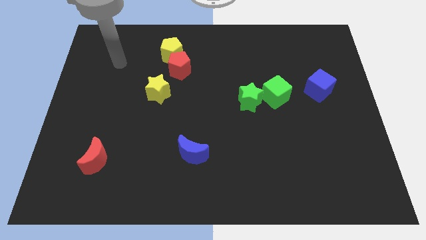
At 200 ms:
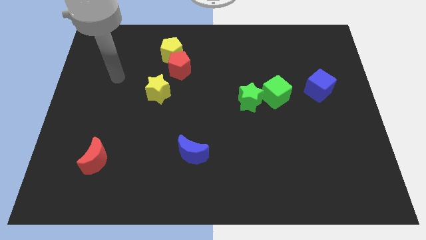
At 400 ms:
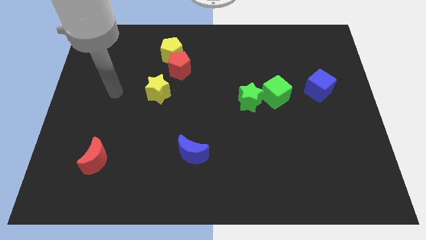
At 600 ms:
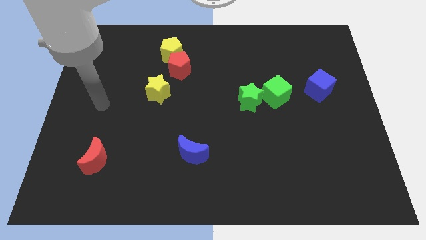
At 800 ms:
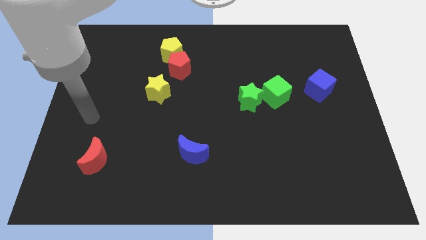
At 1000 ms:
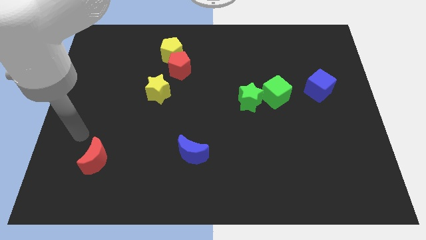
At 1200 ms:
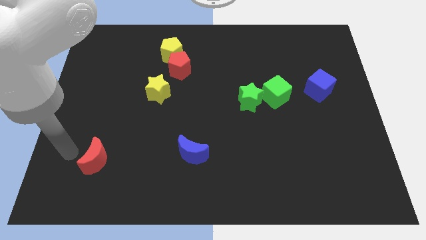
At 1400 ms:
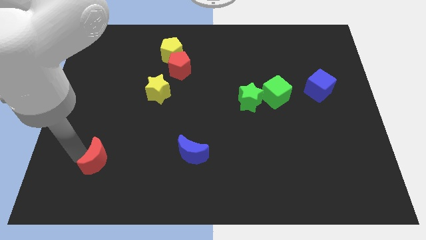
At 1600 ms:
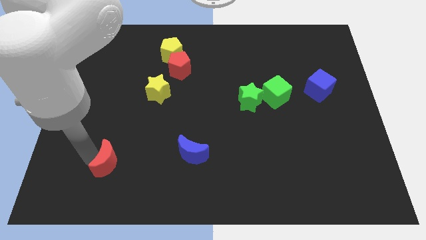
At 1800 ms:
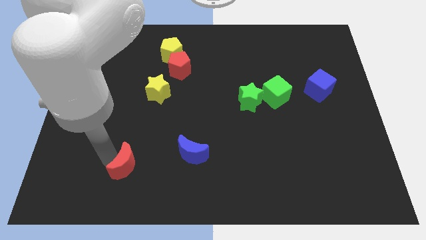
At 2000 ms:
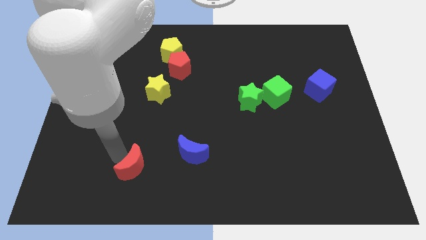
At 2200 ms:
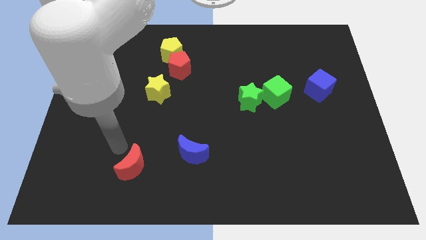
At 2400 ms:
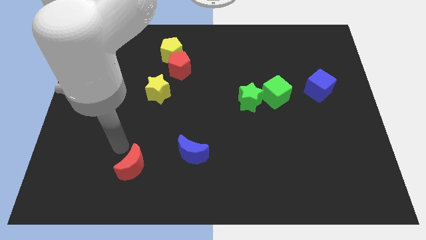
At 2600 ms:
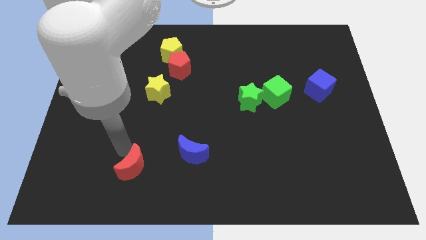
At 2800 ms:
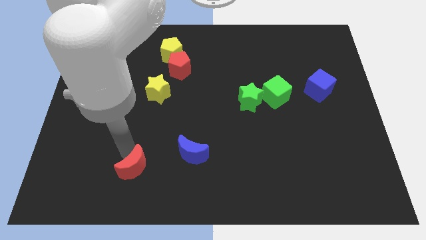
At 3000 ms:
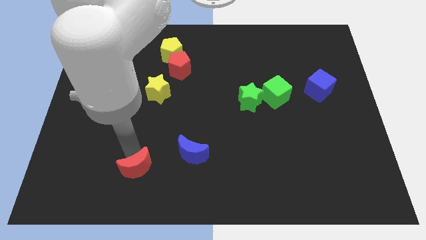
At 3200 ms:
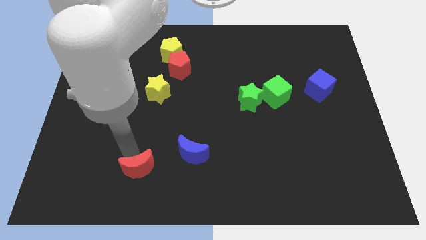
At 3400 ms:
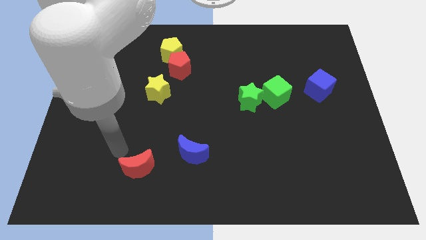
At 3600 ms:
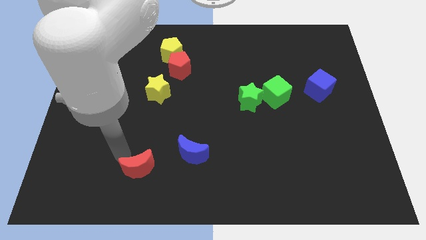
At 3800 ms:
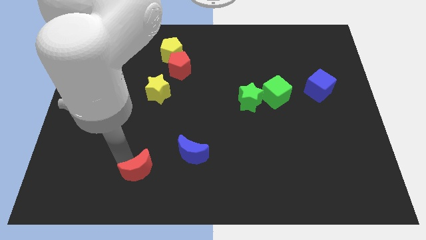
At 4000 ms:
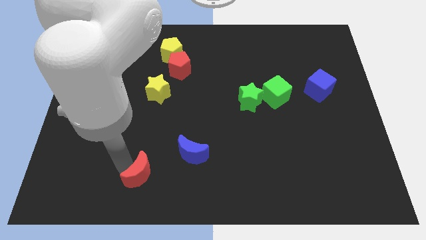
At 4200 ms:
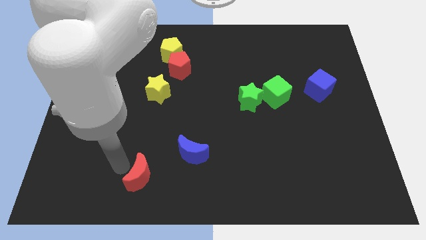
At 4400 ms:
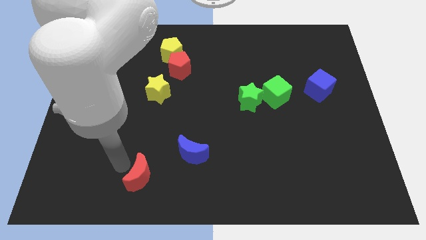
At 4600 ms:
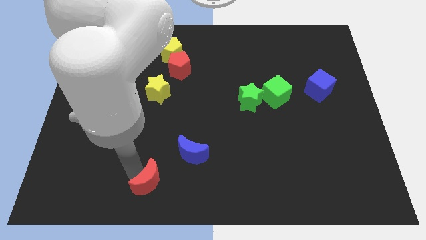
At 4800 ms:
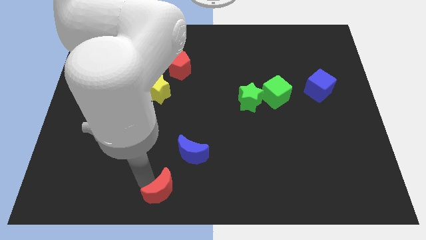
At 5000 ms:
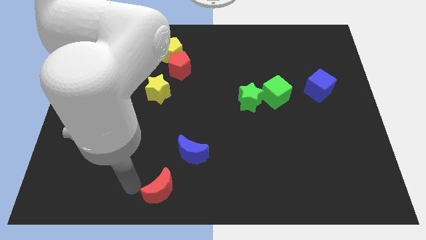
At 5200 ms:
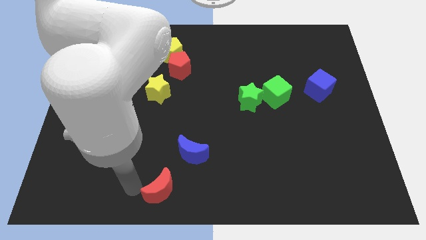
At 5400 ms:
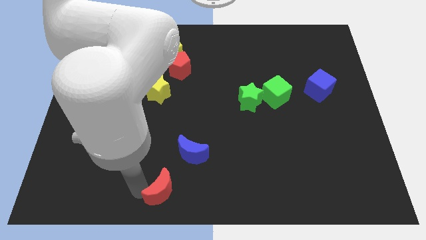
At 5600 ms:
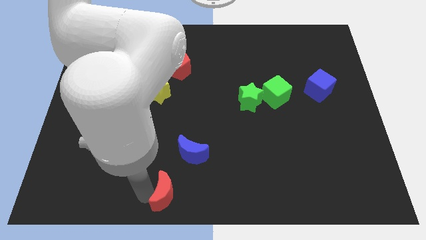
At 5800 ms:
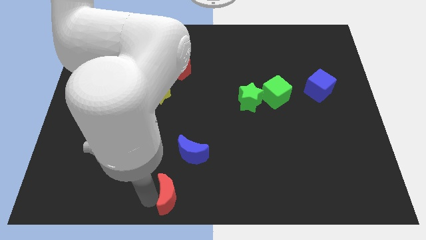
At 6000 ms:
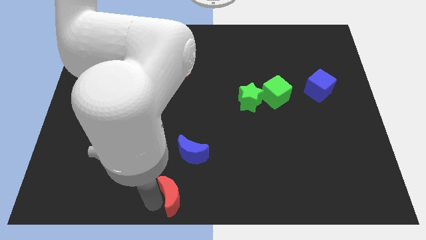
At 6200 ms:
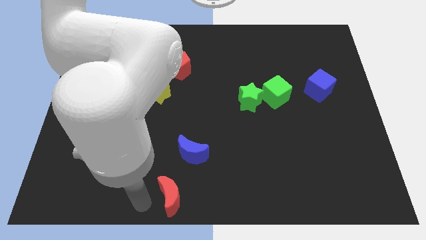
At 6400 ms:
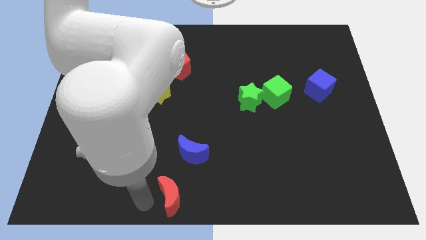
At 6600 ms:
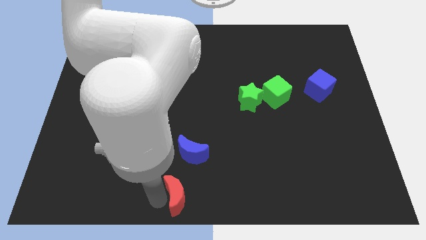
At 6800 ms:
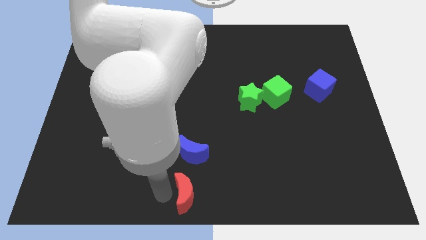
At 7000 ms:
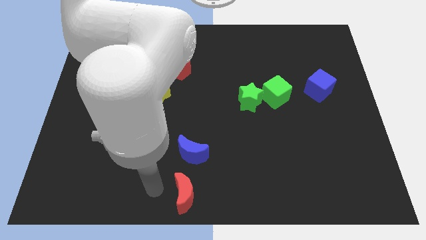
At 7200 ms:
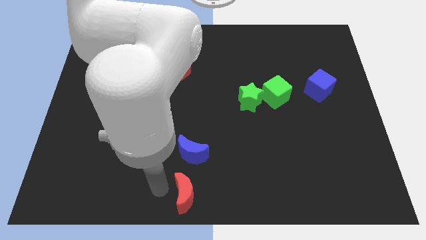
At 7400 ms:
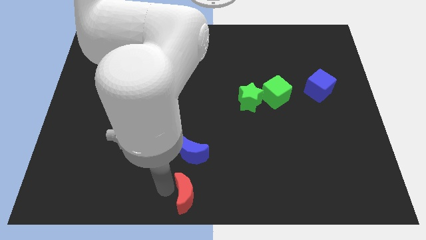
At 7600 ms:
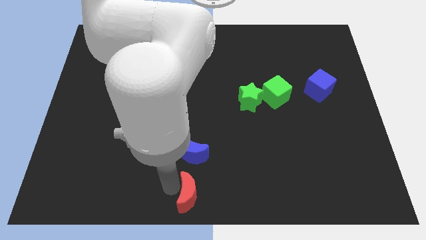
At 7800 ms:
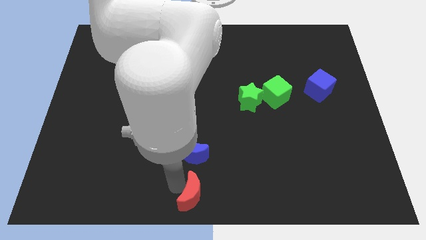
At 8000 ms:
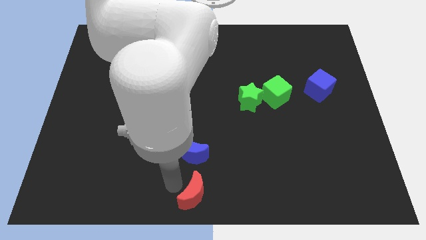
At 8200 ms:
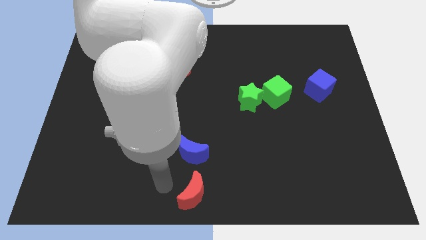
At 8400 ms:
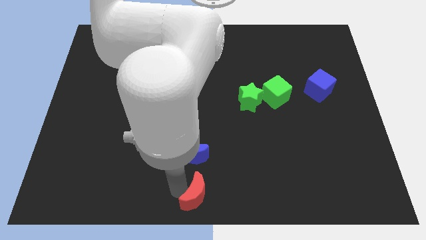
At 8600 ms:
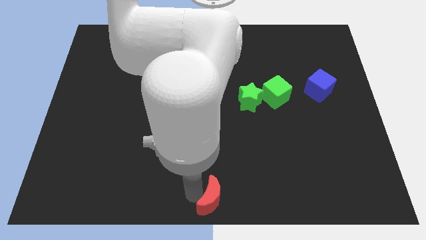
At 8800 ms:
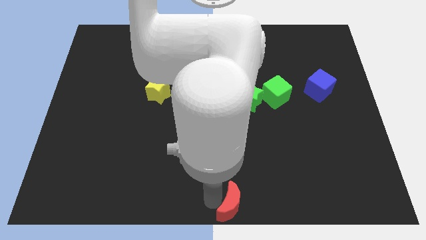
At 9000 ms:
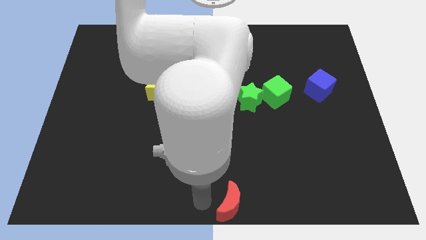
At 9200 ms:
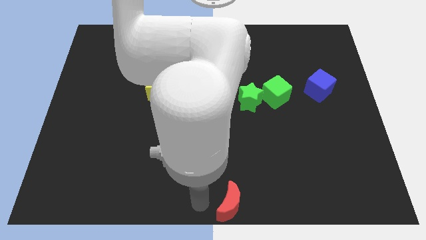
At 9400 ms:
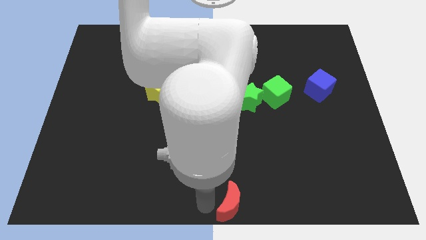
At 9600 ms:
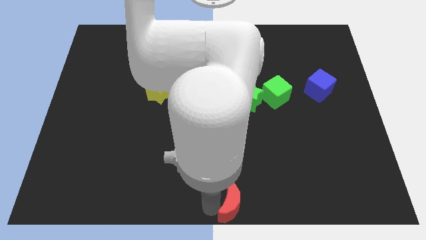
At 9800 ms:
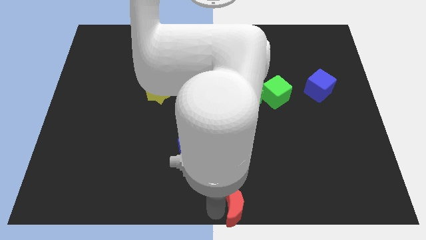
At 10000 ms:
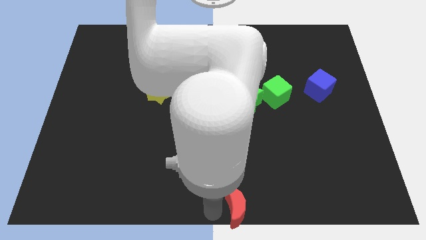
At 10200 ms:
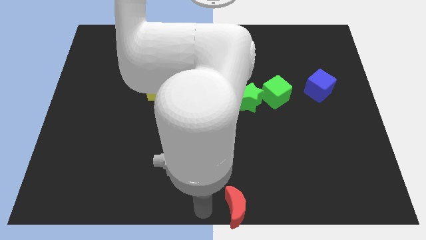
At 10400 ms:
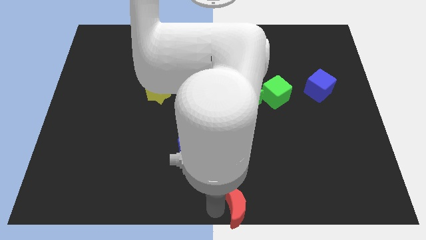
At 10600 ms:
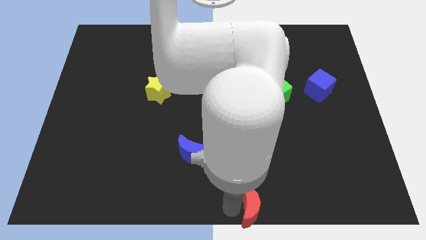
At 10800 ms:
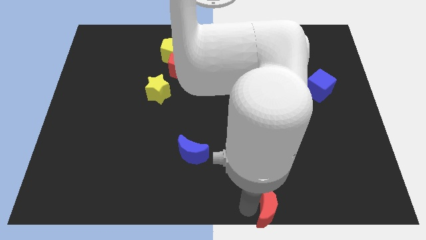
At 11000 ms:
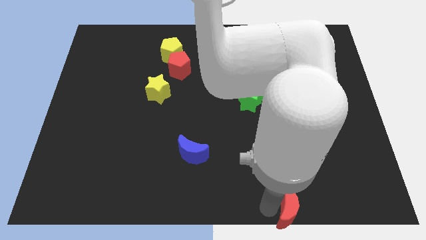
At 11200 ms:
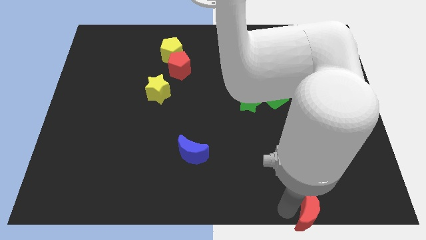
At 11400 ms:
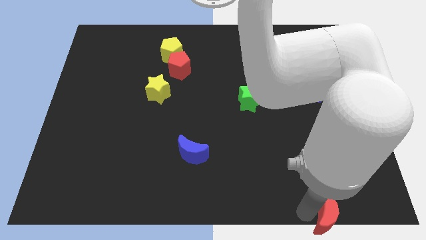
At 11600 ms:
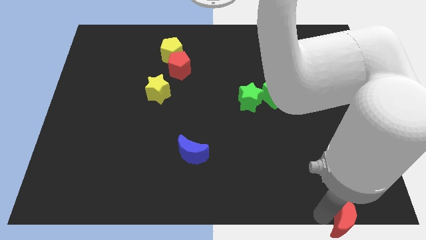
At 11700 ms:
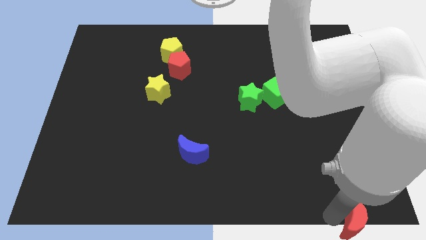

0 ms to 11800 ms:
move the red moon to the lower right corner

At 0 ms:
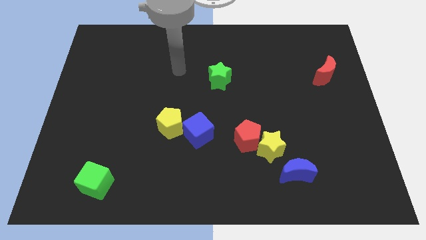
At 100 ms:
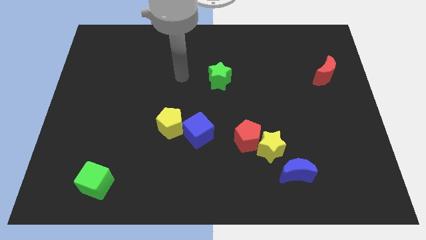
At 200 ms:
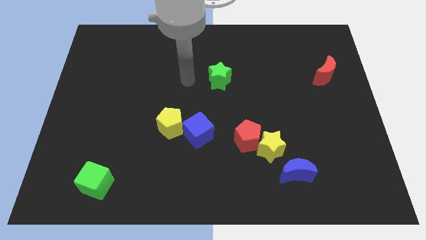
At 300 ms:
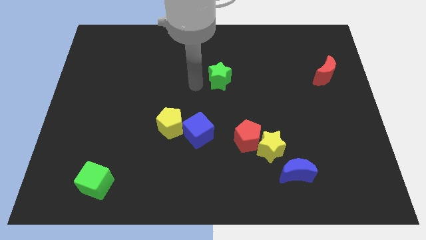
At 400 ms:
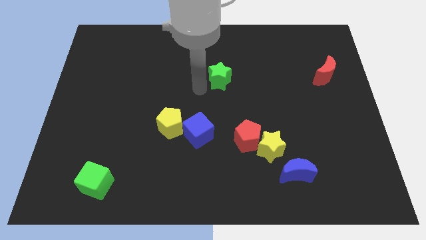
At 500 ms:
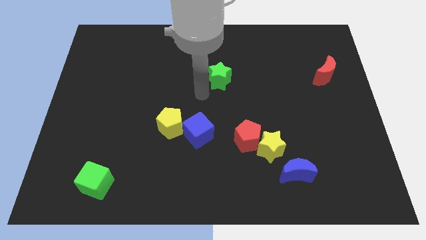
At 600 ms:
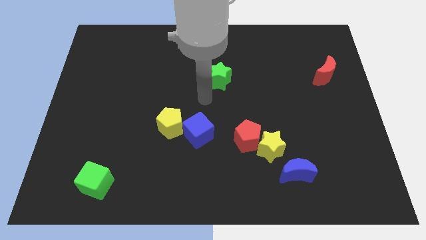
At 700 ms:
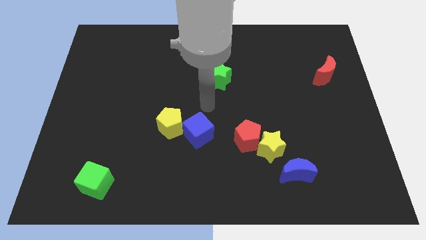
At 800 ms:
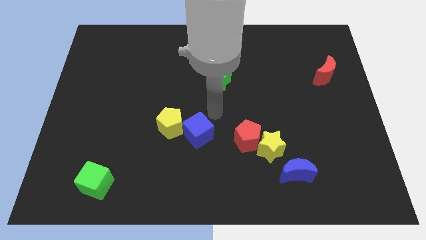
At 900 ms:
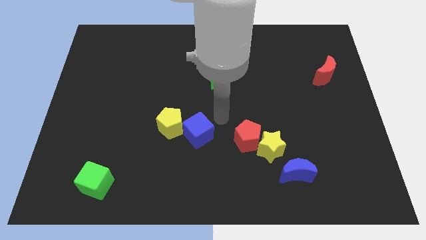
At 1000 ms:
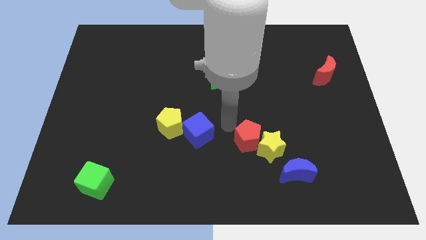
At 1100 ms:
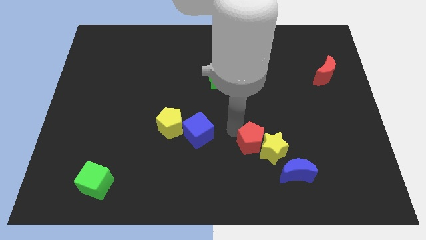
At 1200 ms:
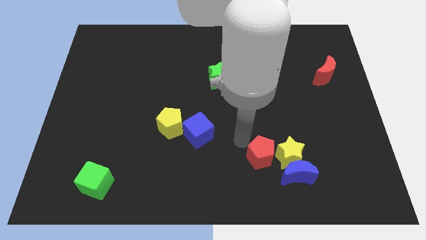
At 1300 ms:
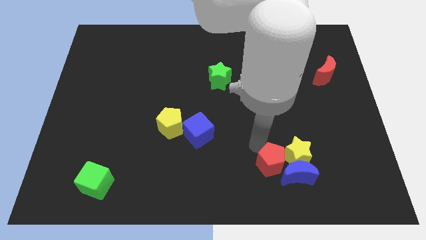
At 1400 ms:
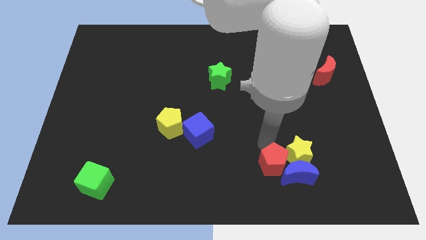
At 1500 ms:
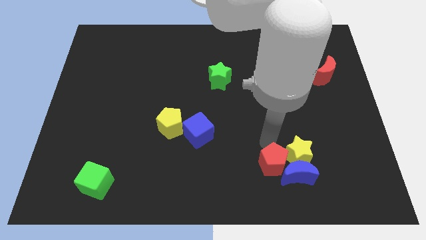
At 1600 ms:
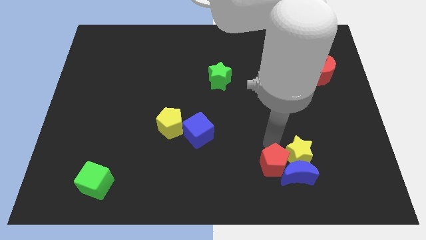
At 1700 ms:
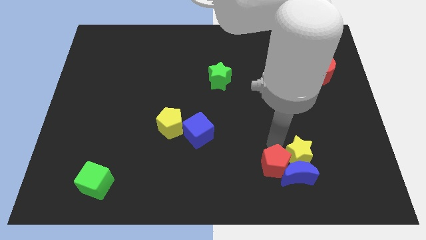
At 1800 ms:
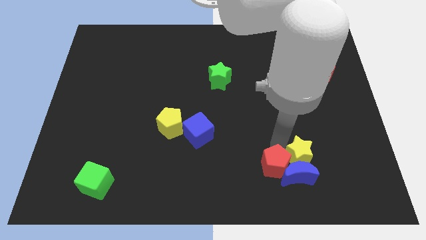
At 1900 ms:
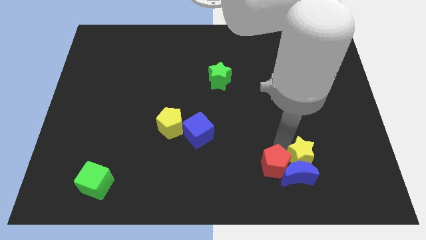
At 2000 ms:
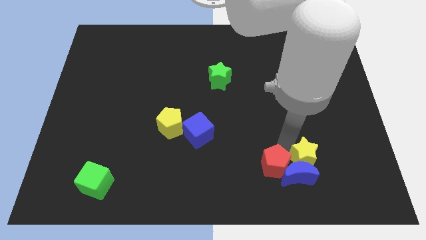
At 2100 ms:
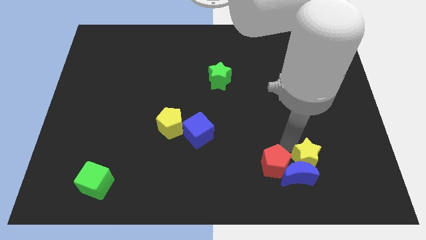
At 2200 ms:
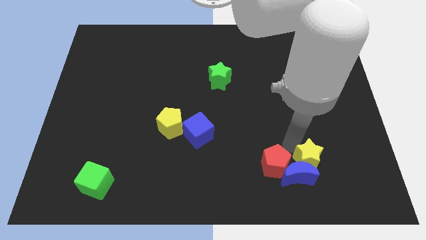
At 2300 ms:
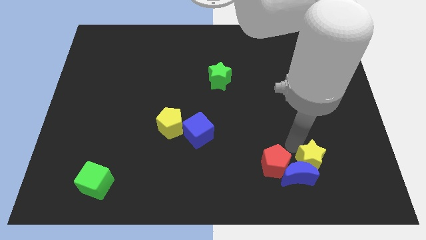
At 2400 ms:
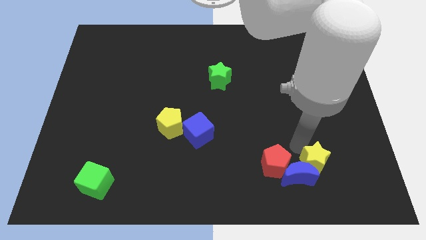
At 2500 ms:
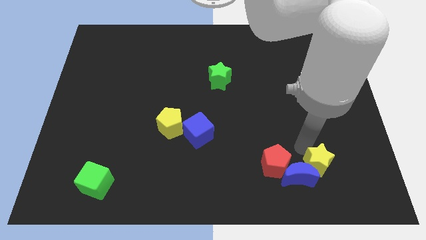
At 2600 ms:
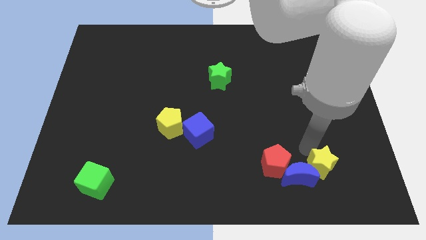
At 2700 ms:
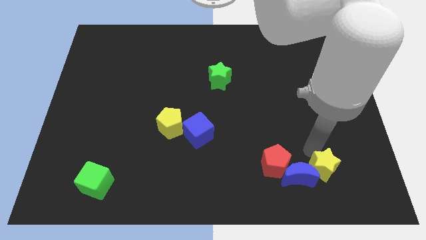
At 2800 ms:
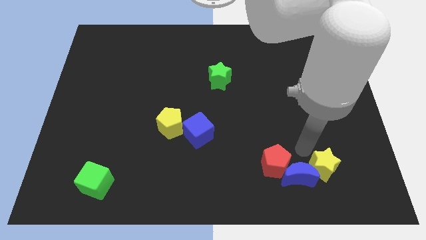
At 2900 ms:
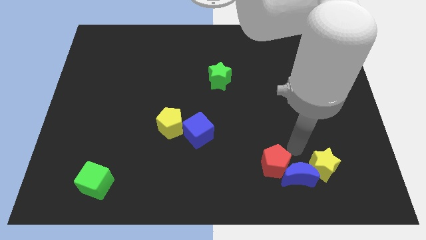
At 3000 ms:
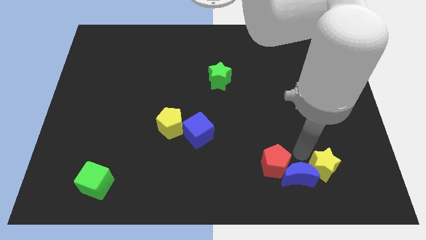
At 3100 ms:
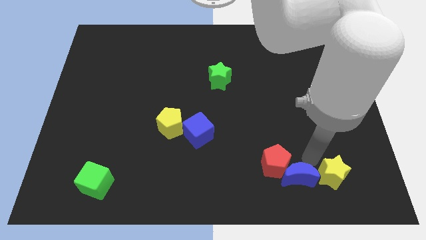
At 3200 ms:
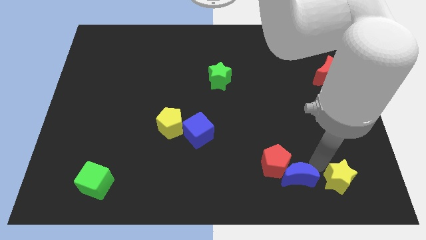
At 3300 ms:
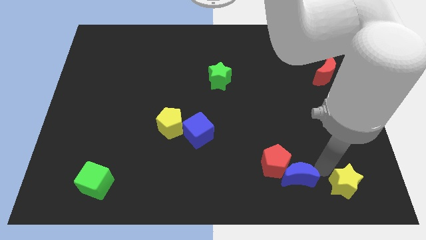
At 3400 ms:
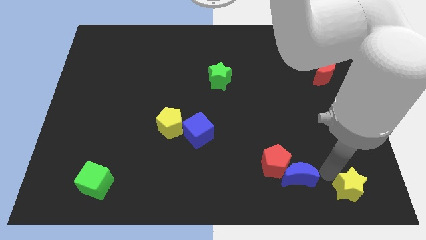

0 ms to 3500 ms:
put the yellow star to the bottom right
